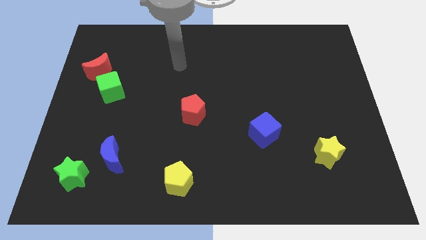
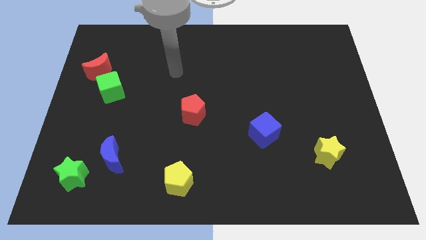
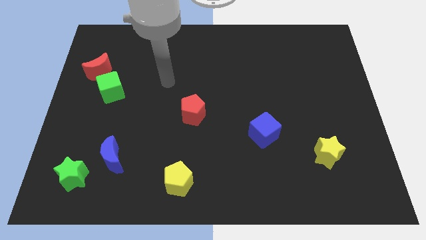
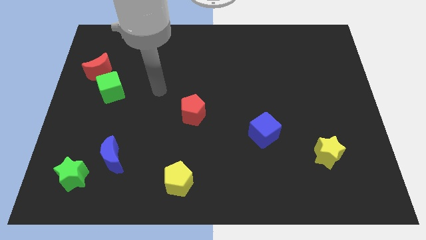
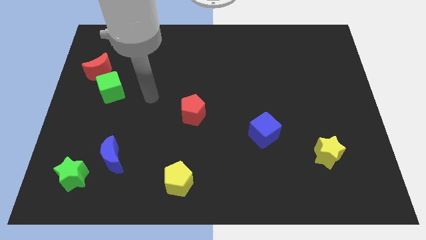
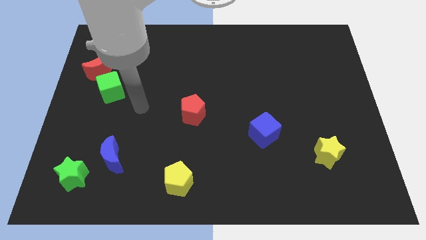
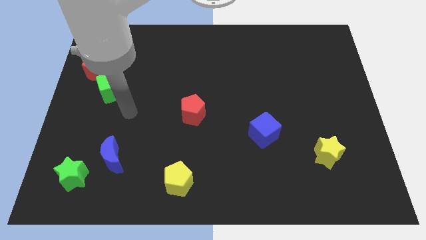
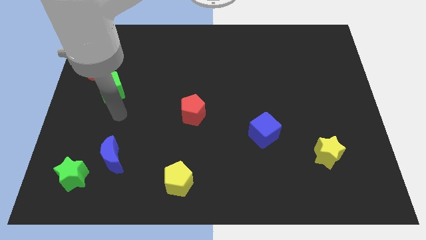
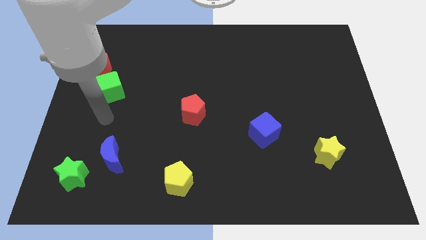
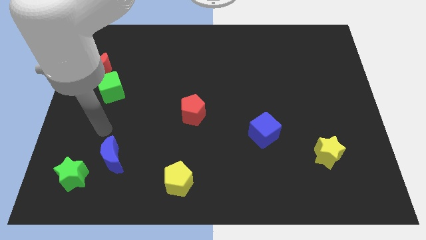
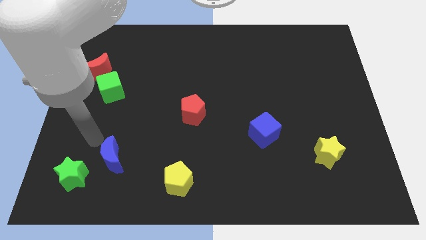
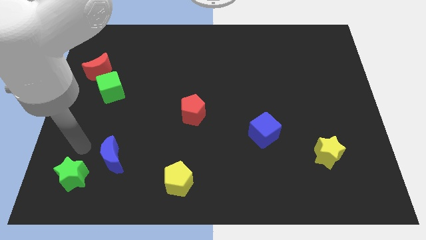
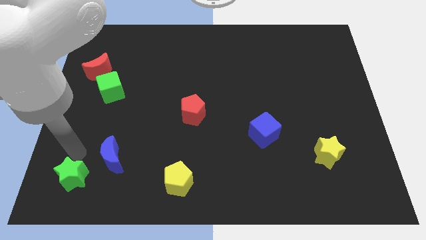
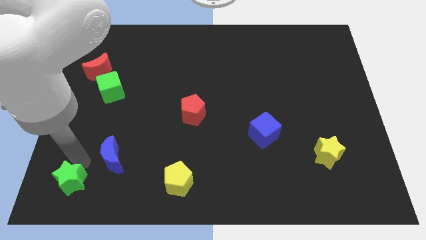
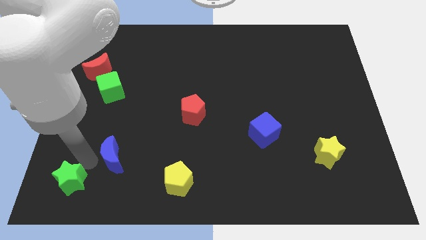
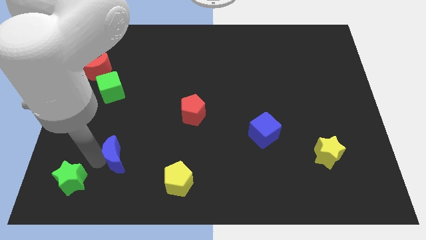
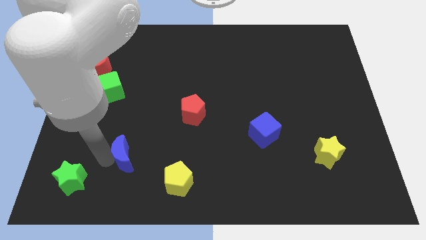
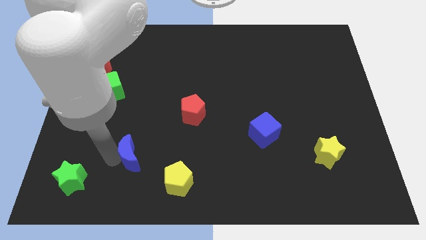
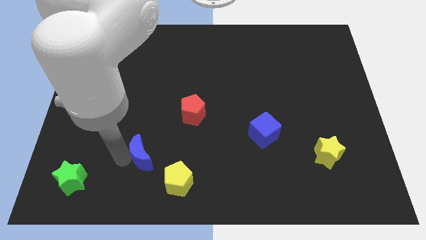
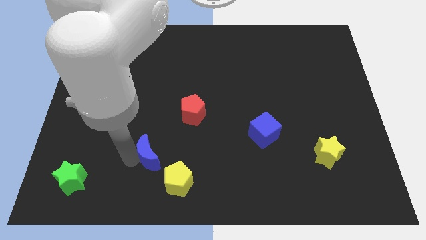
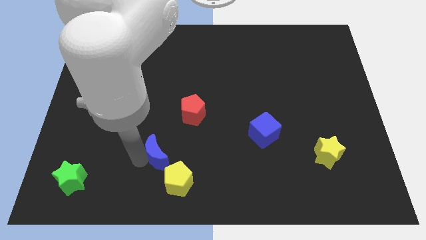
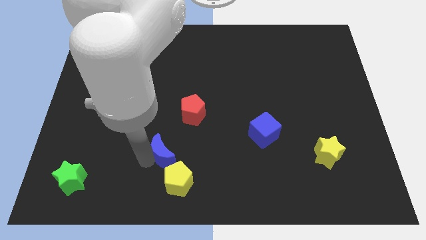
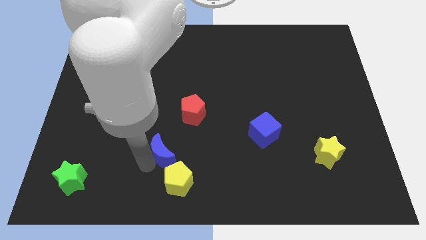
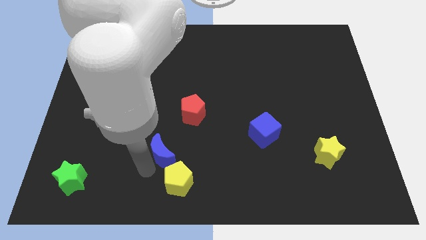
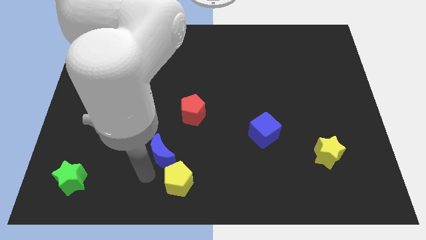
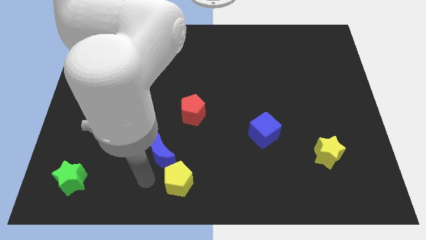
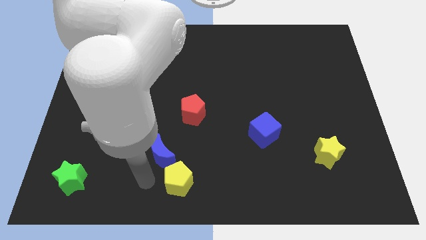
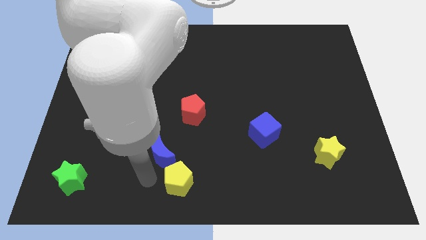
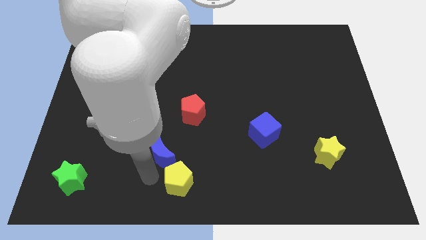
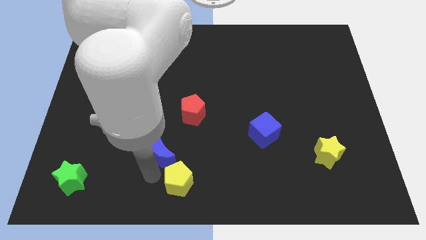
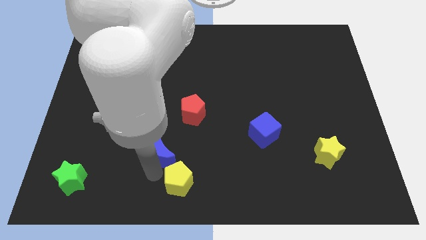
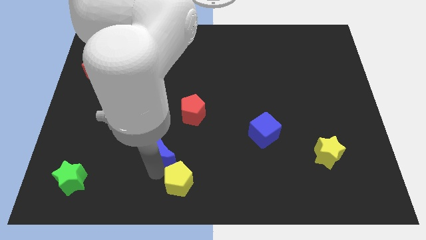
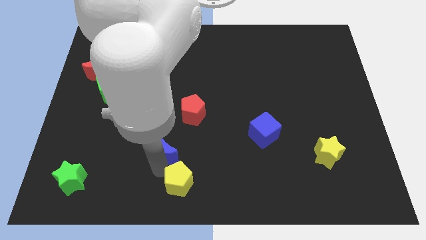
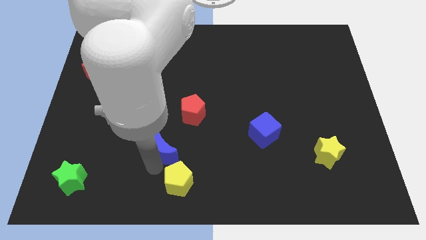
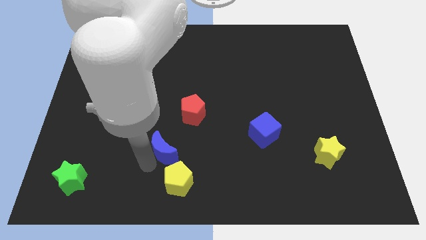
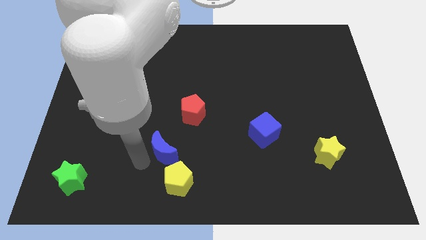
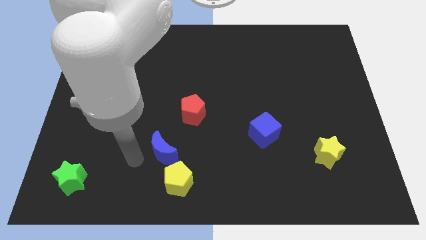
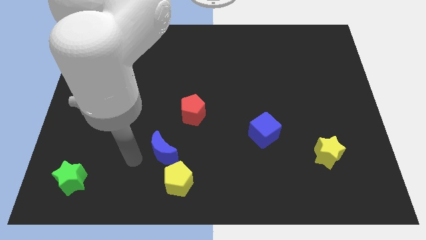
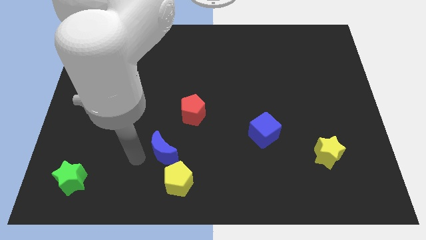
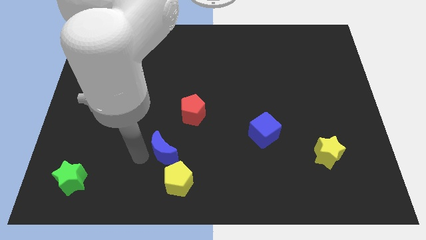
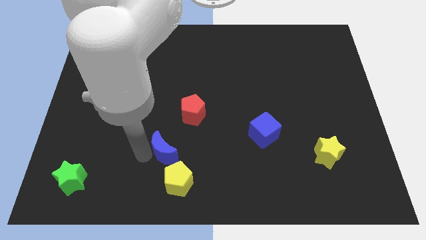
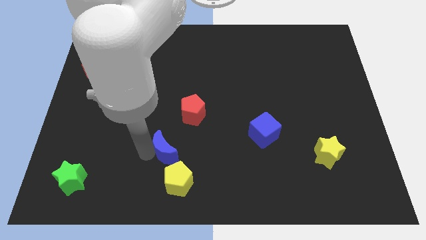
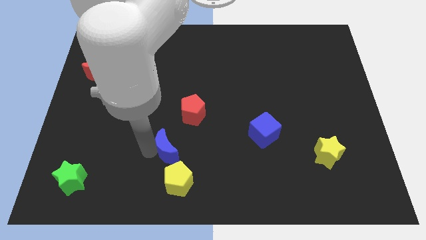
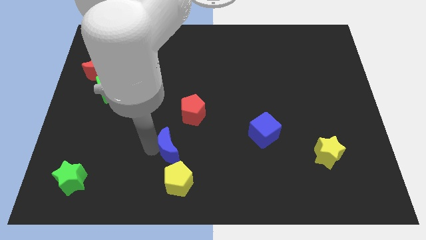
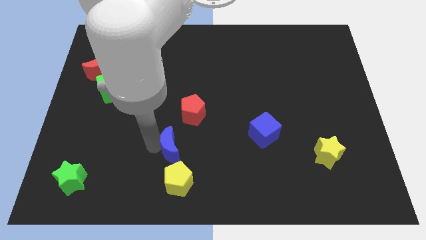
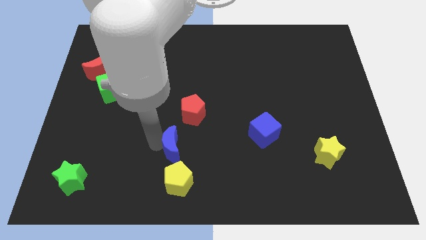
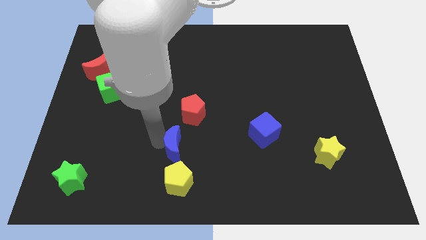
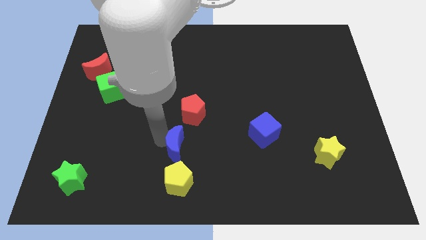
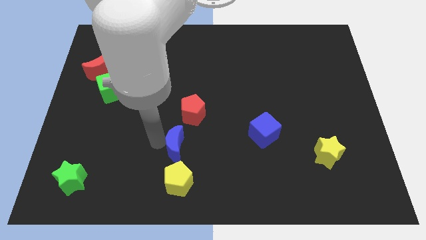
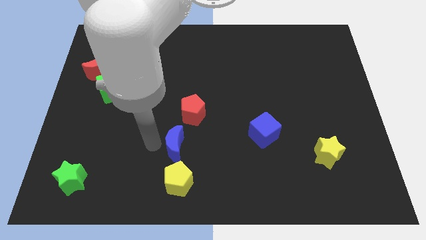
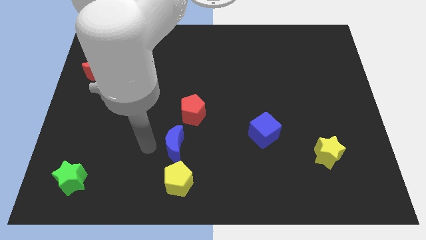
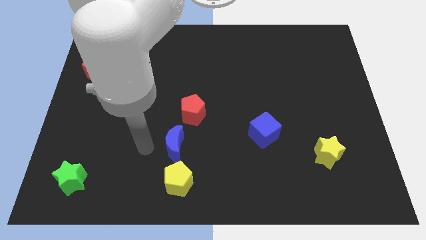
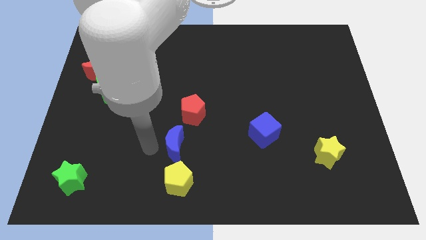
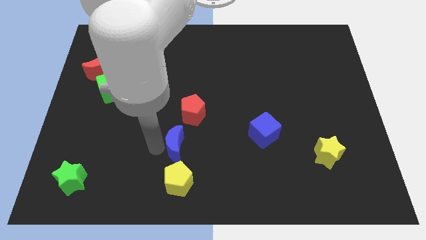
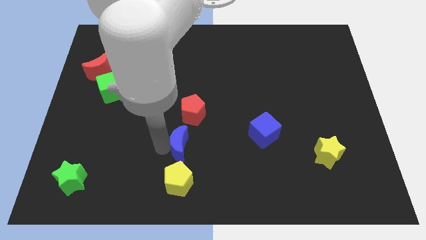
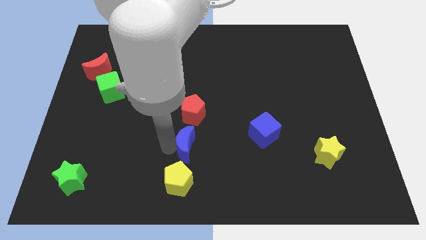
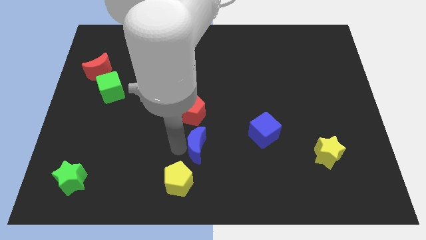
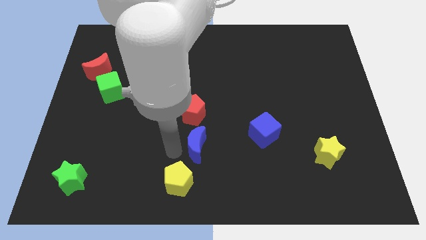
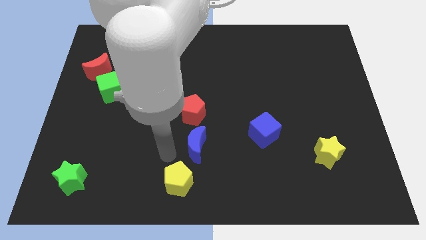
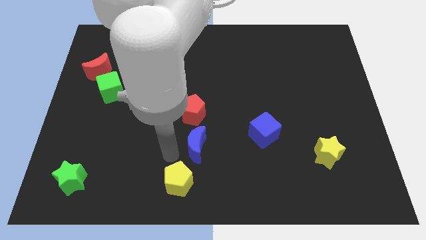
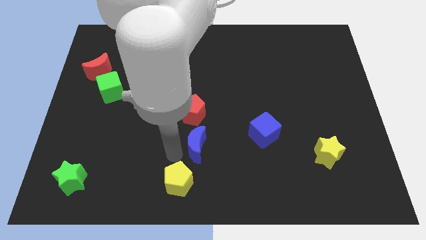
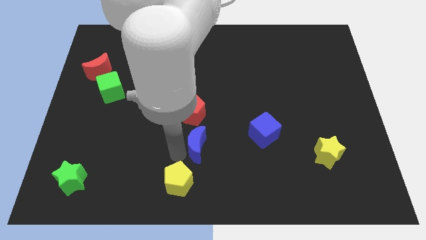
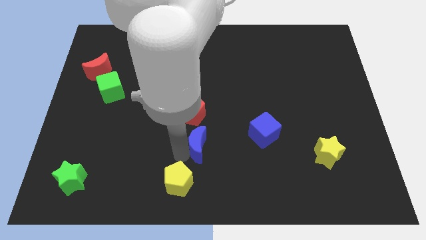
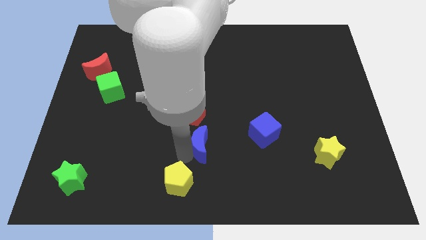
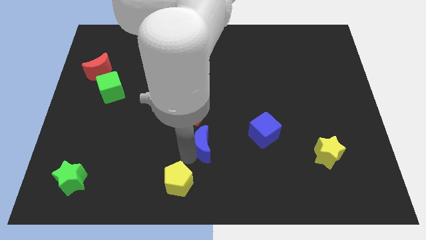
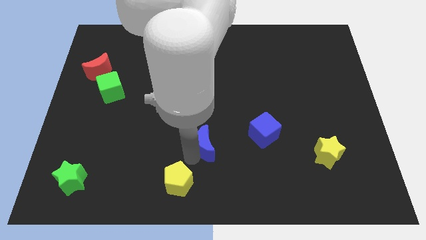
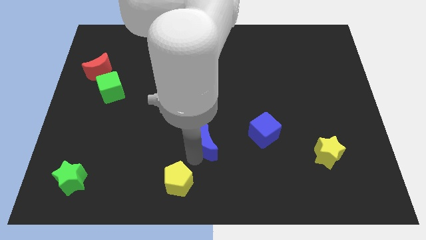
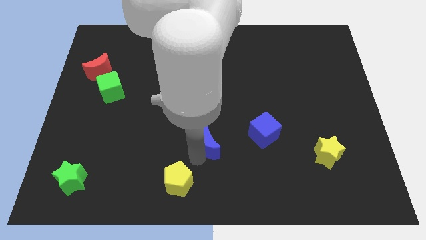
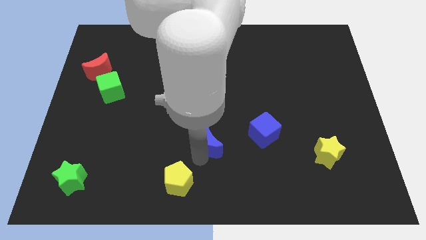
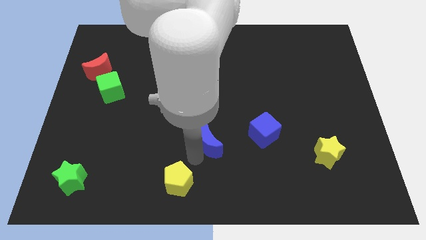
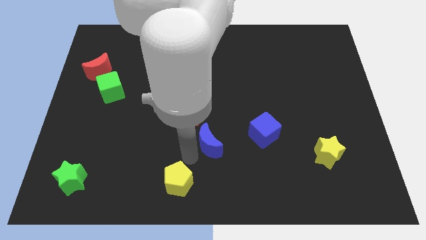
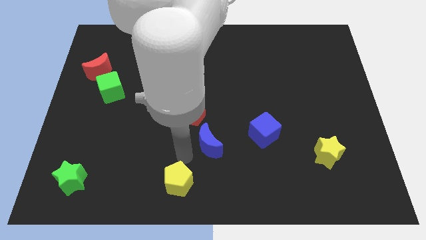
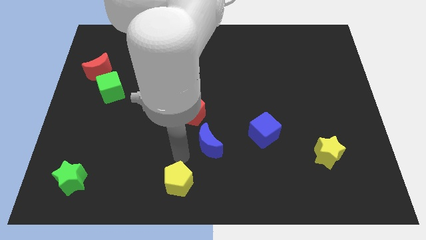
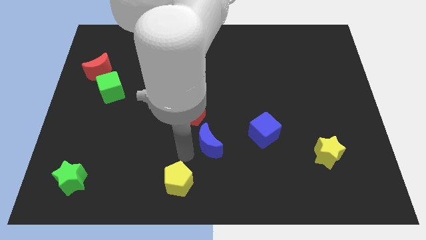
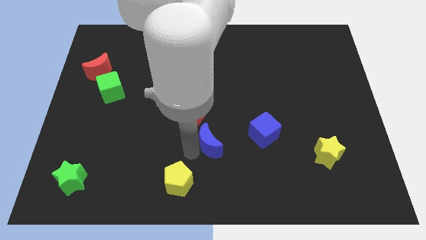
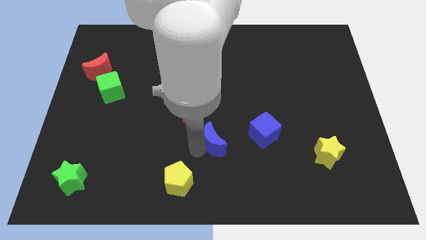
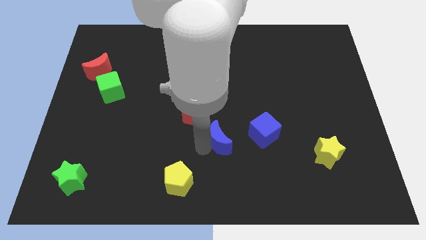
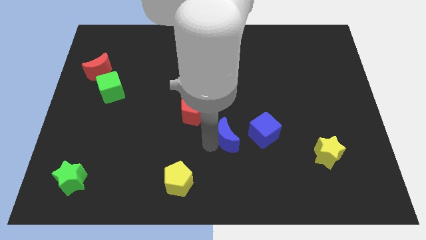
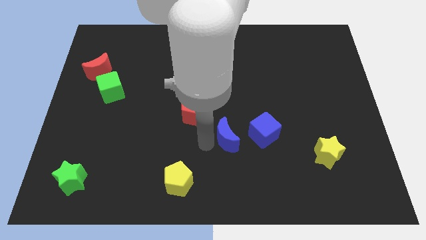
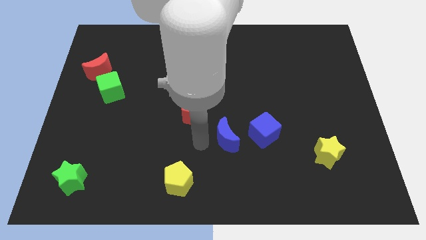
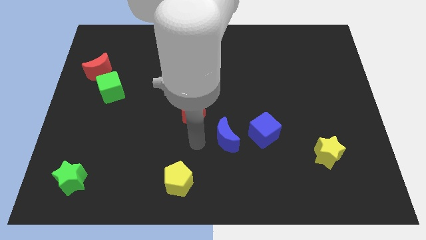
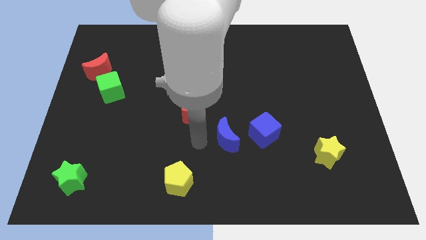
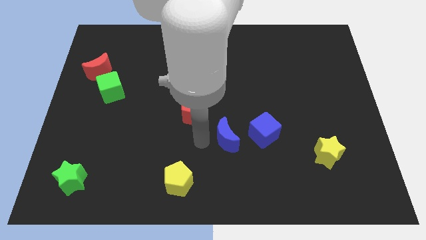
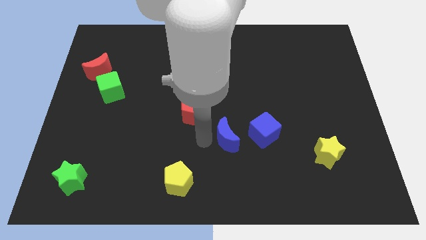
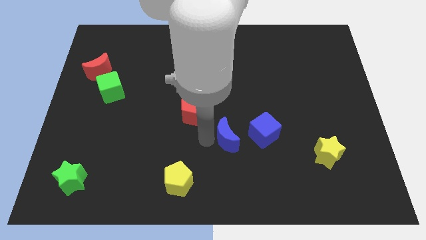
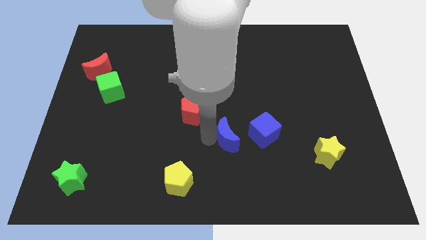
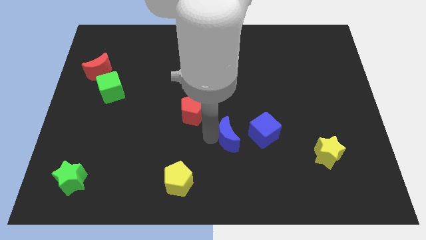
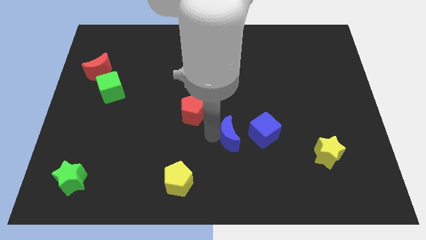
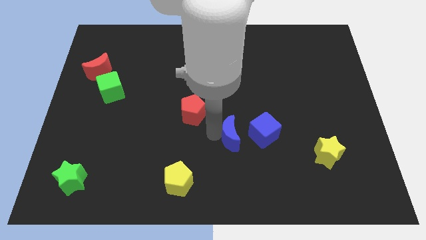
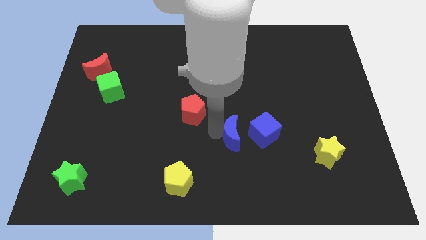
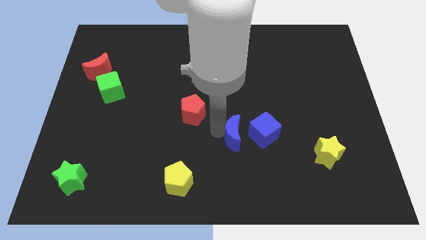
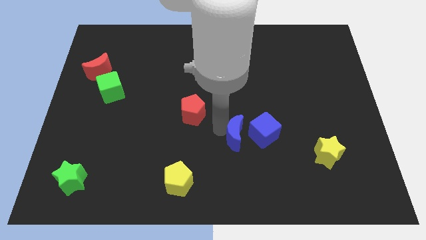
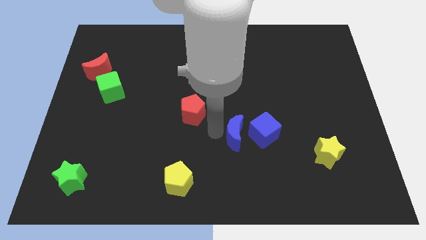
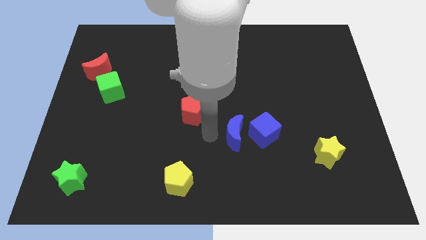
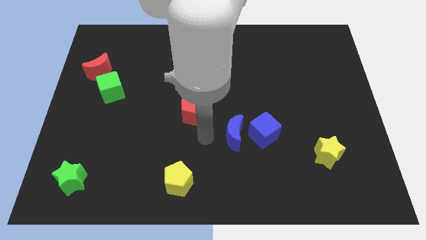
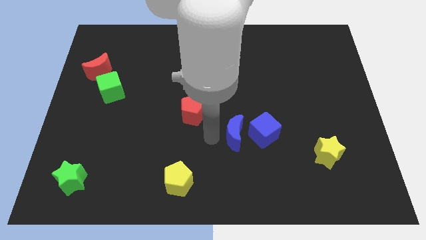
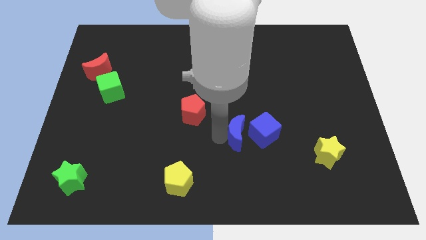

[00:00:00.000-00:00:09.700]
slide the blue moon towards the blue cube
